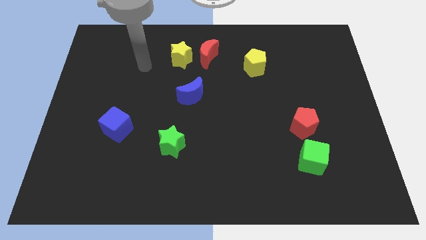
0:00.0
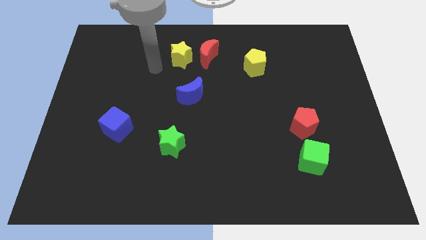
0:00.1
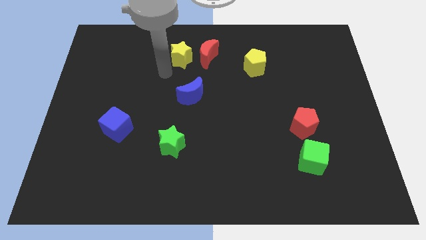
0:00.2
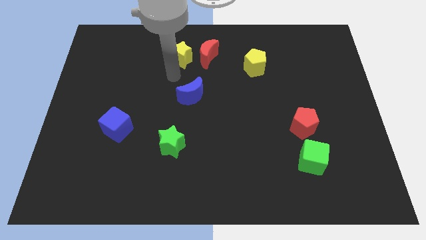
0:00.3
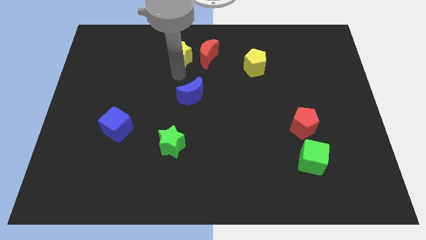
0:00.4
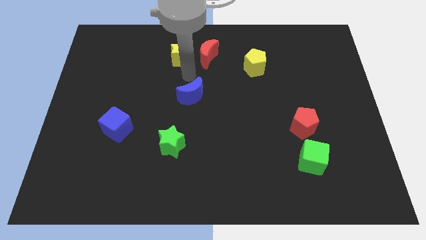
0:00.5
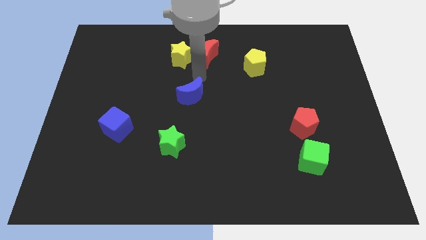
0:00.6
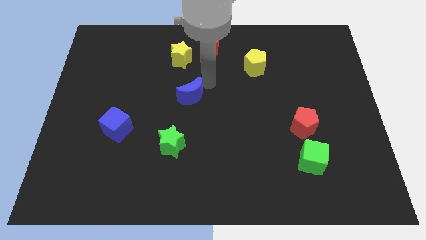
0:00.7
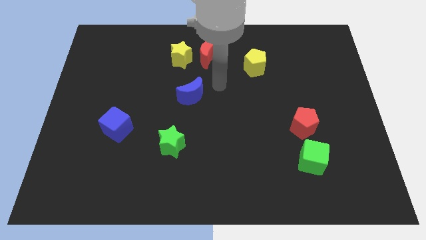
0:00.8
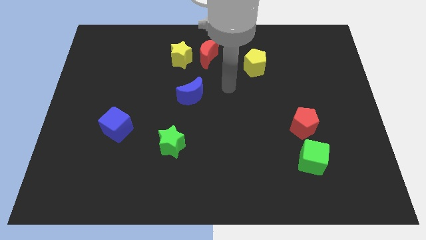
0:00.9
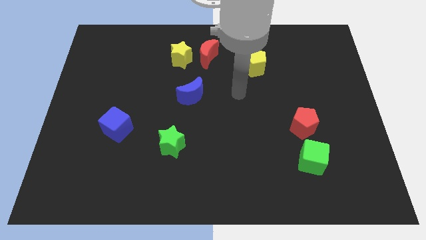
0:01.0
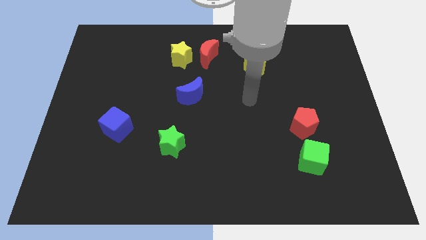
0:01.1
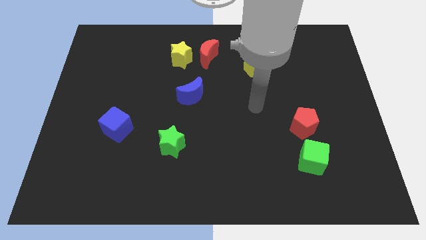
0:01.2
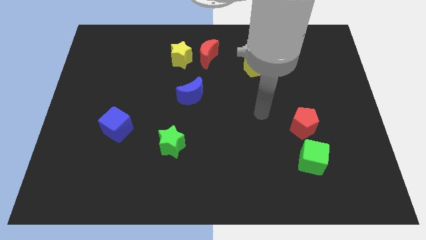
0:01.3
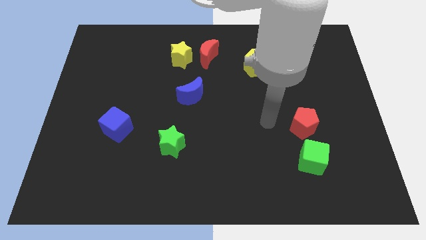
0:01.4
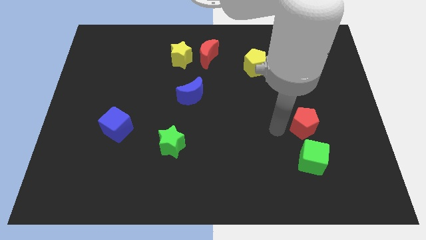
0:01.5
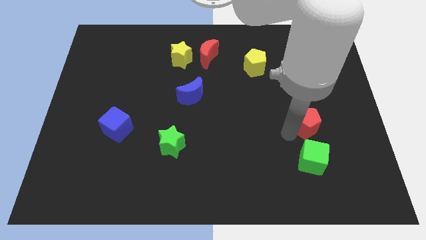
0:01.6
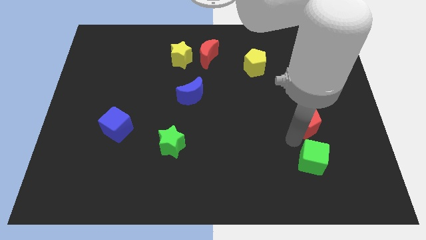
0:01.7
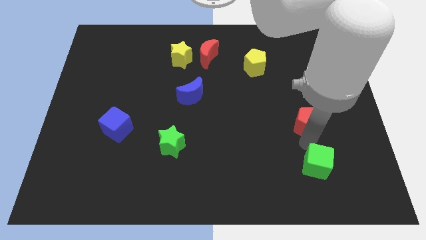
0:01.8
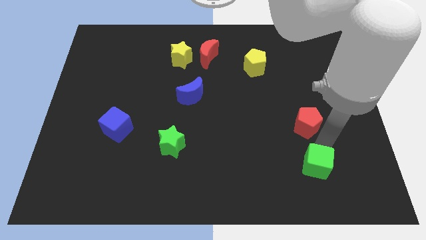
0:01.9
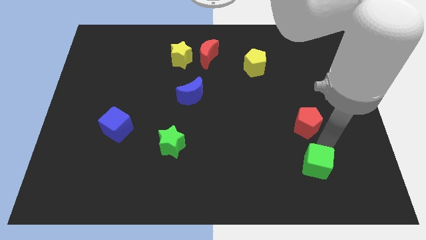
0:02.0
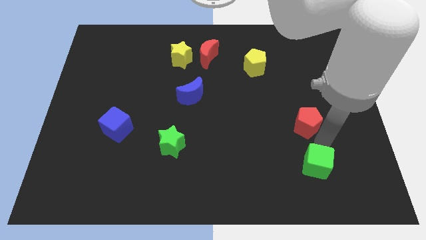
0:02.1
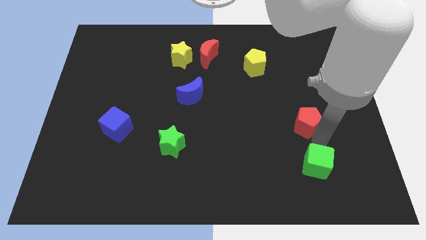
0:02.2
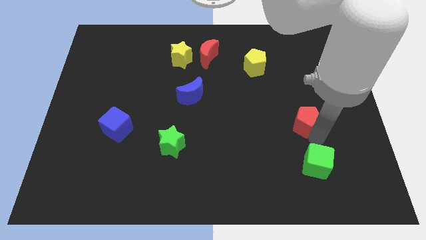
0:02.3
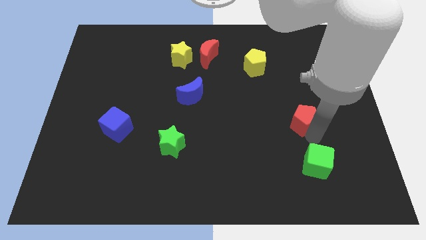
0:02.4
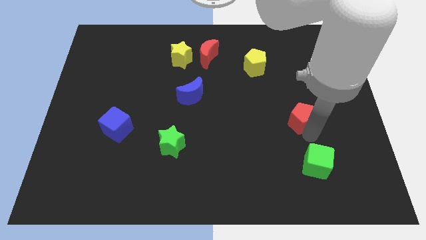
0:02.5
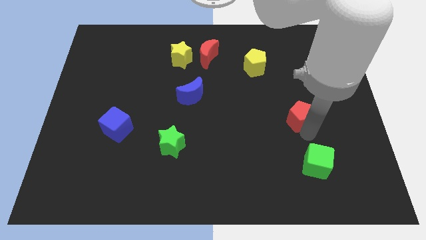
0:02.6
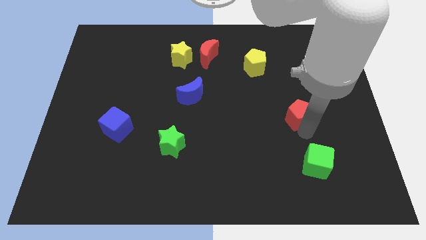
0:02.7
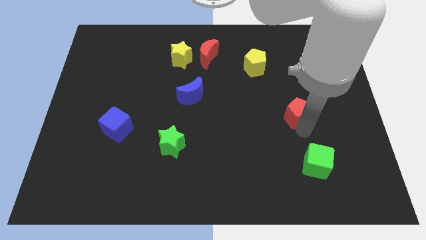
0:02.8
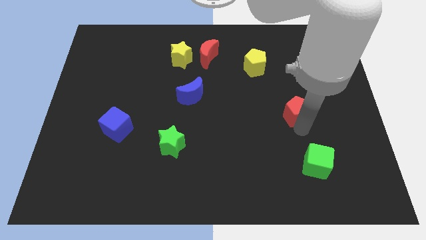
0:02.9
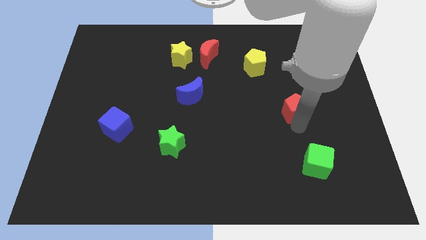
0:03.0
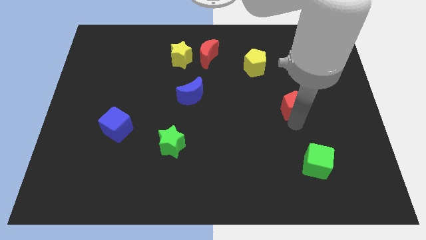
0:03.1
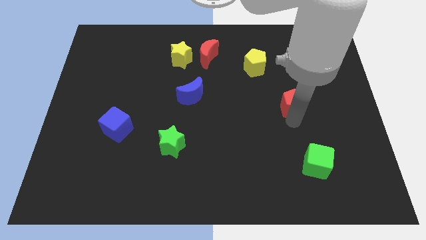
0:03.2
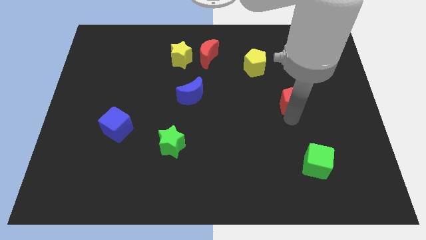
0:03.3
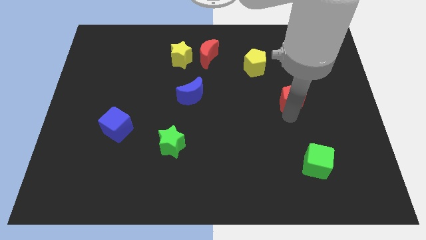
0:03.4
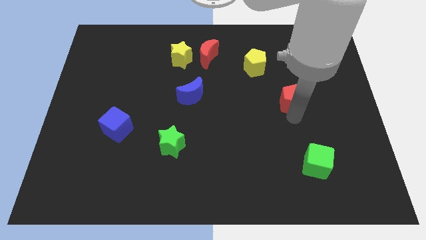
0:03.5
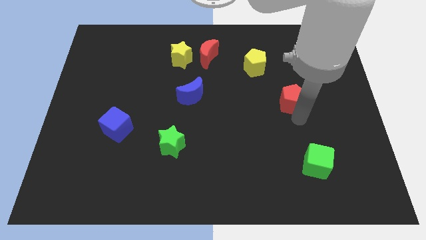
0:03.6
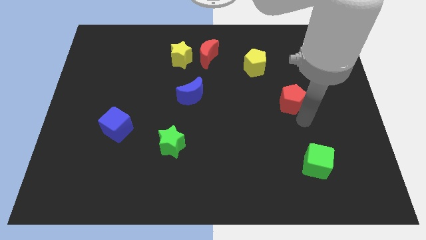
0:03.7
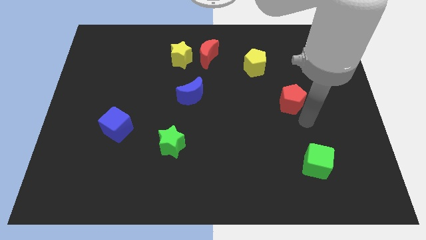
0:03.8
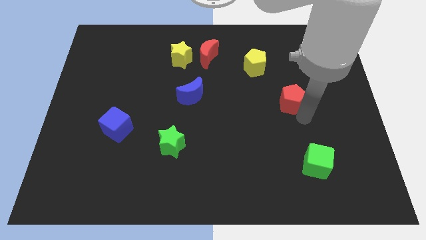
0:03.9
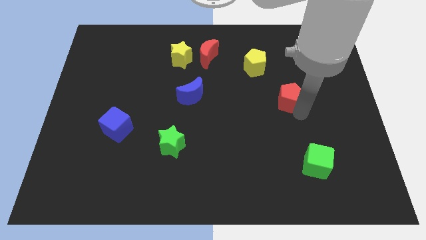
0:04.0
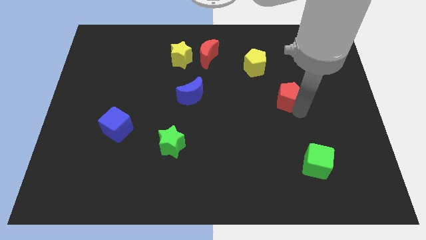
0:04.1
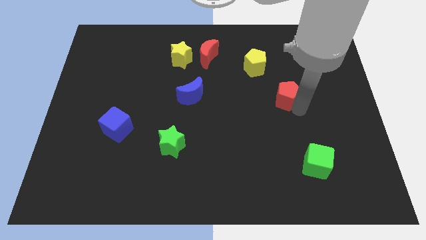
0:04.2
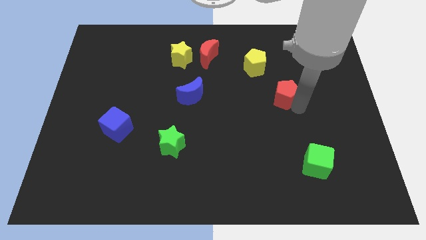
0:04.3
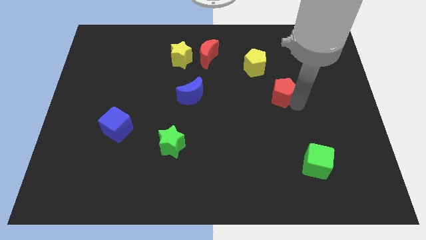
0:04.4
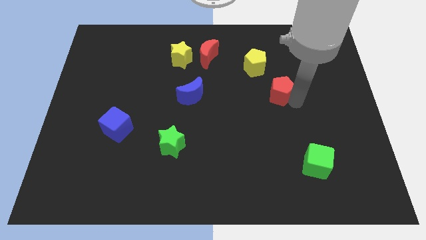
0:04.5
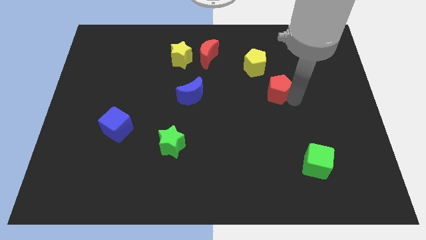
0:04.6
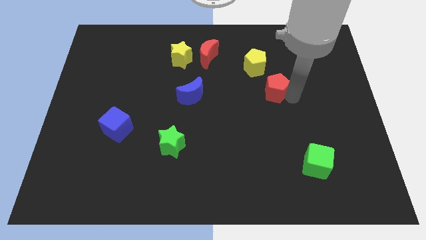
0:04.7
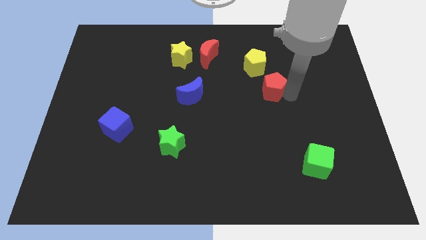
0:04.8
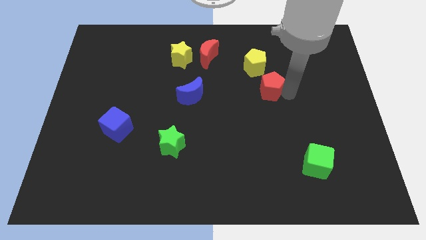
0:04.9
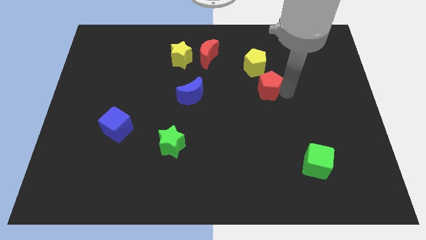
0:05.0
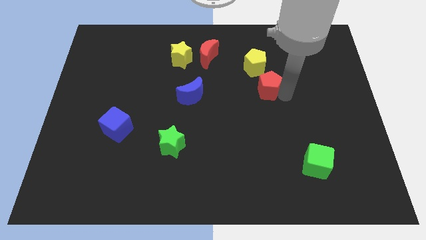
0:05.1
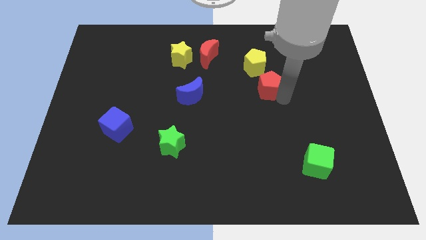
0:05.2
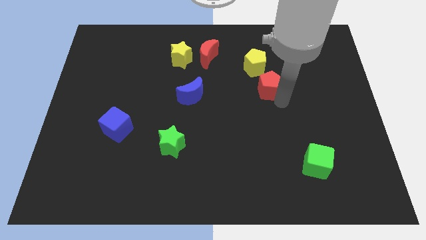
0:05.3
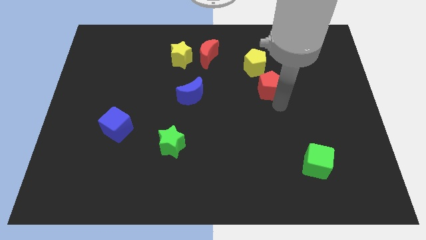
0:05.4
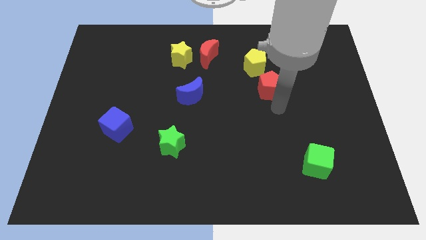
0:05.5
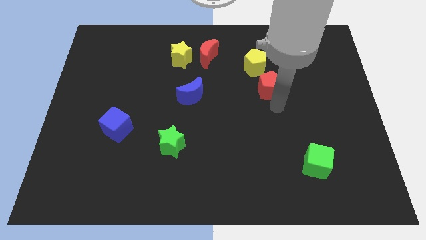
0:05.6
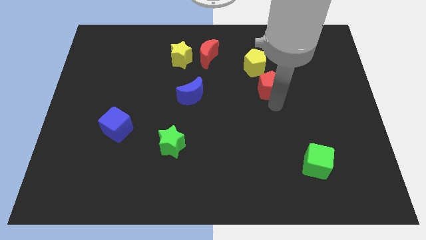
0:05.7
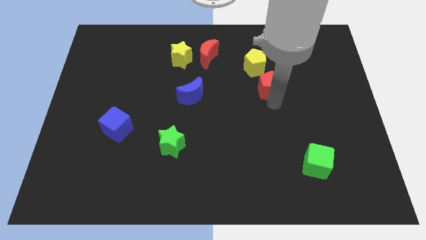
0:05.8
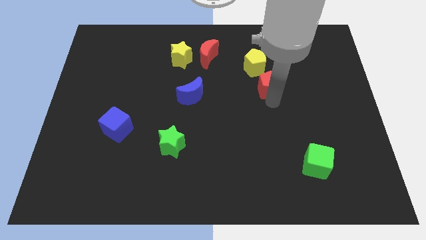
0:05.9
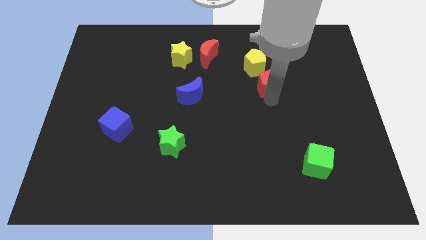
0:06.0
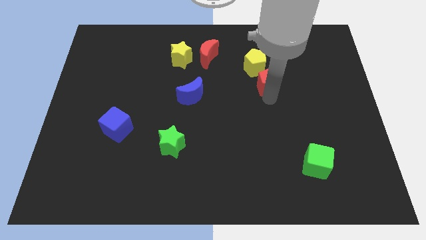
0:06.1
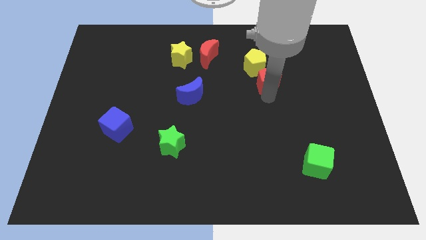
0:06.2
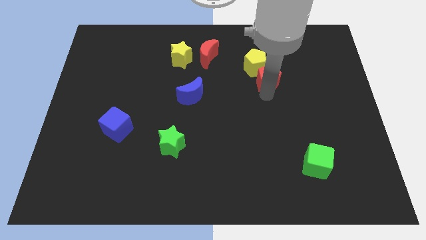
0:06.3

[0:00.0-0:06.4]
push the red pentagon towards the yellow pentagon

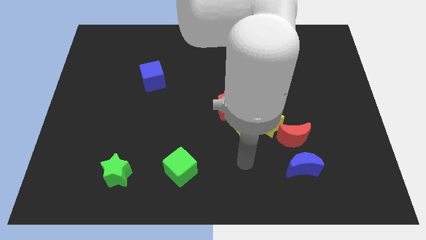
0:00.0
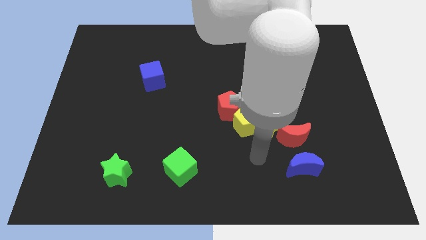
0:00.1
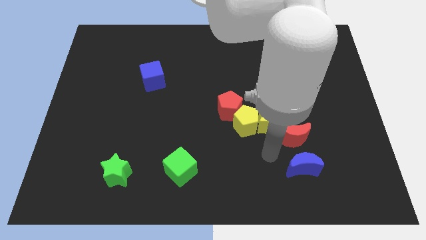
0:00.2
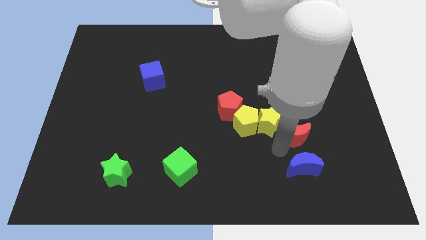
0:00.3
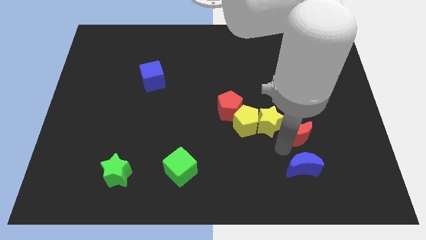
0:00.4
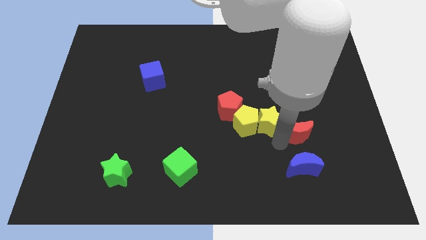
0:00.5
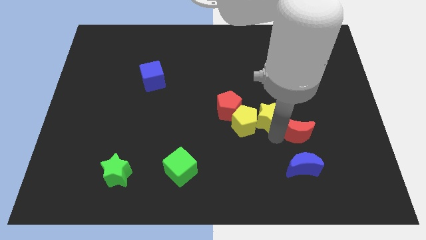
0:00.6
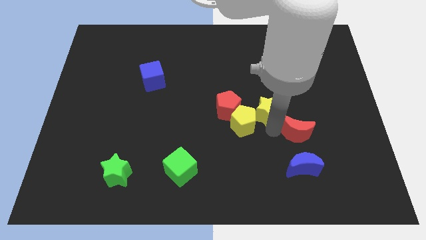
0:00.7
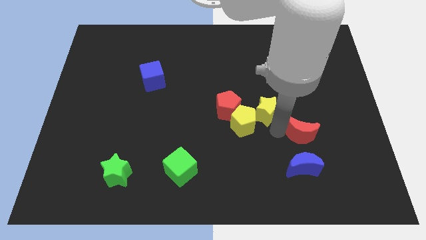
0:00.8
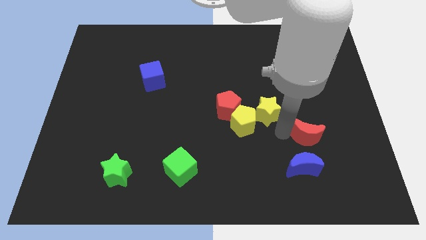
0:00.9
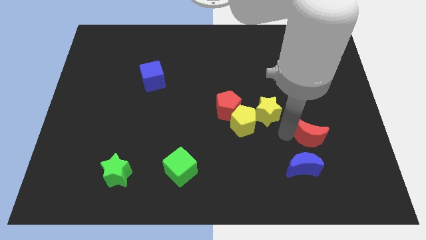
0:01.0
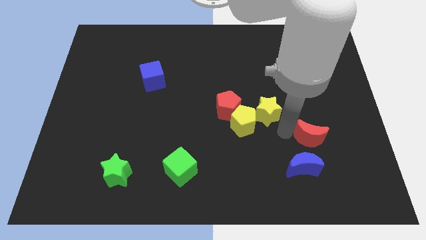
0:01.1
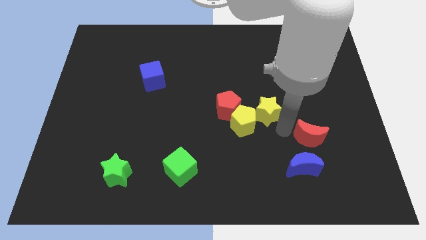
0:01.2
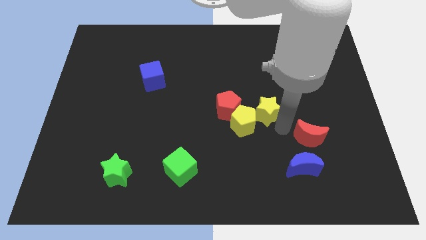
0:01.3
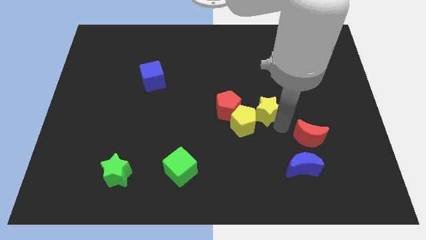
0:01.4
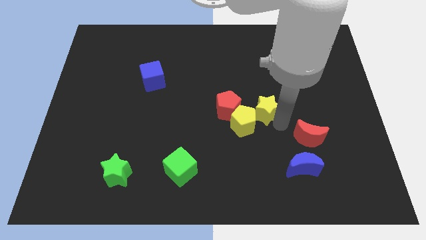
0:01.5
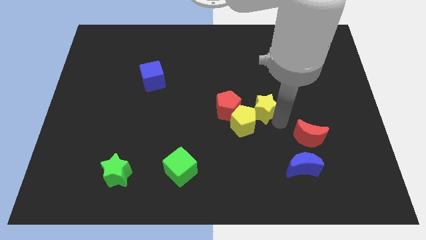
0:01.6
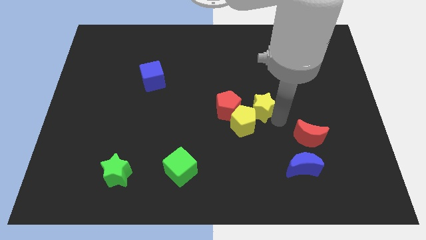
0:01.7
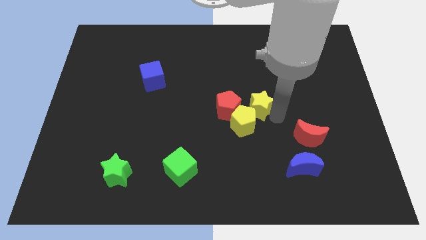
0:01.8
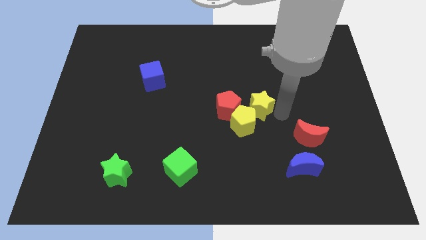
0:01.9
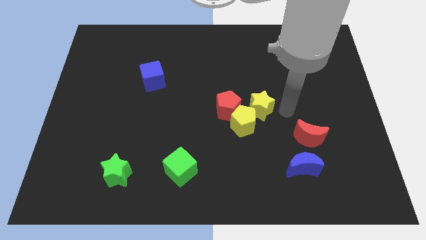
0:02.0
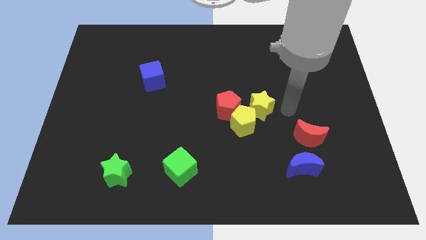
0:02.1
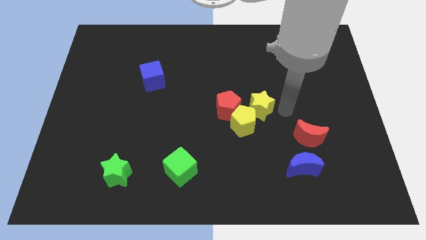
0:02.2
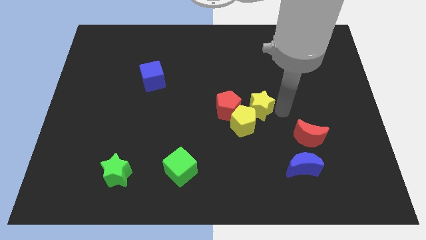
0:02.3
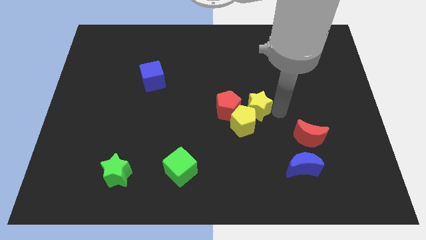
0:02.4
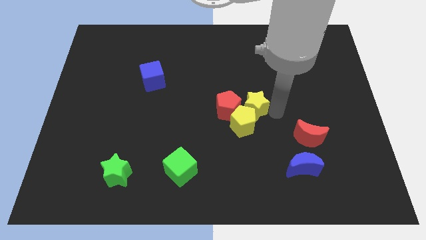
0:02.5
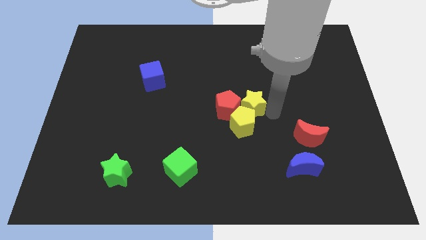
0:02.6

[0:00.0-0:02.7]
push the yellow star to the red pentagon
